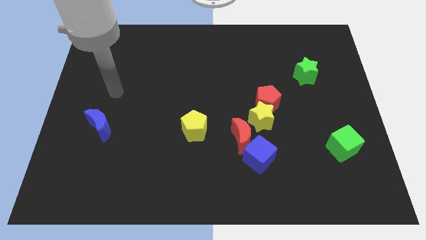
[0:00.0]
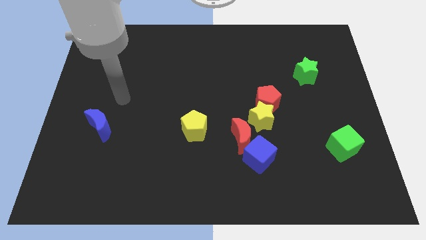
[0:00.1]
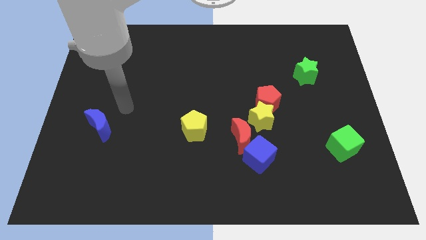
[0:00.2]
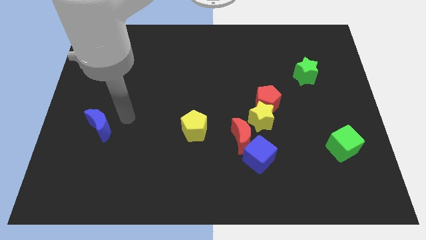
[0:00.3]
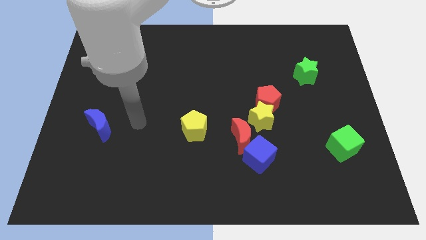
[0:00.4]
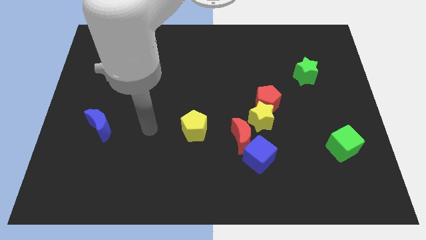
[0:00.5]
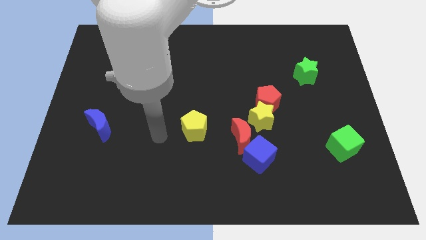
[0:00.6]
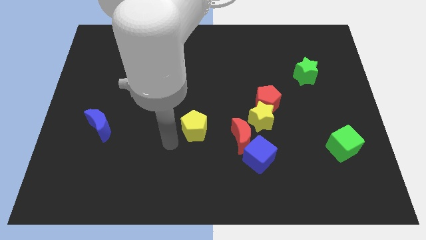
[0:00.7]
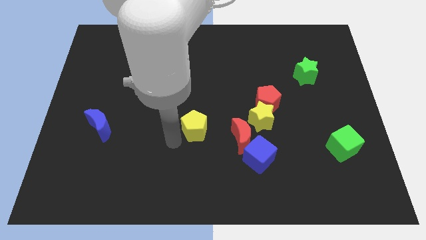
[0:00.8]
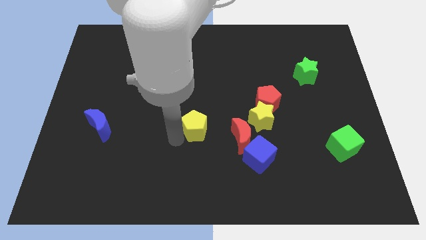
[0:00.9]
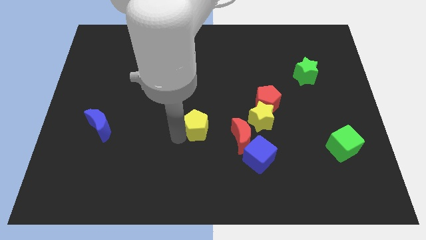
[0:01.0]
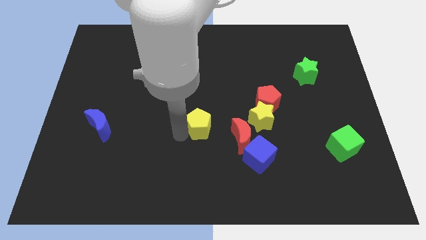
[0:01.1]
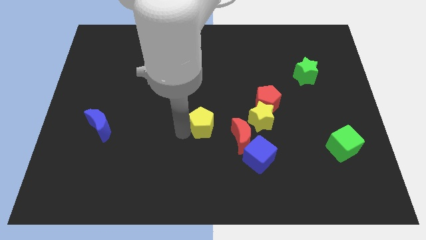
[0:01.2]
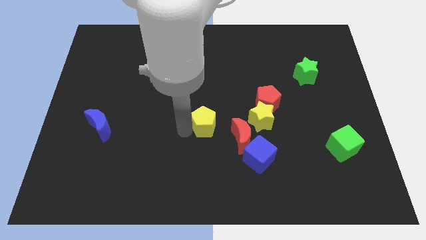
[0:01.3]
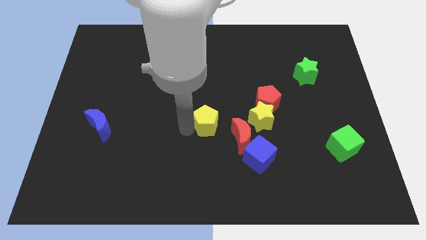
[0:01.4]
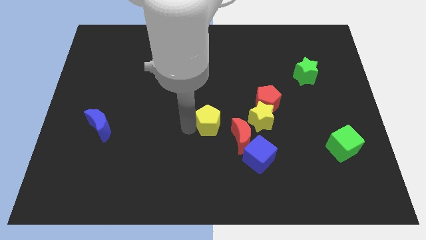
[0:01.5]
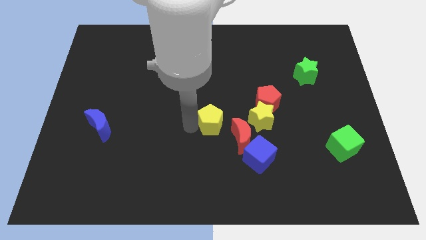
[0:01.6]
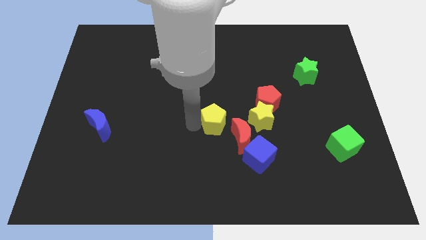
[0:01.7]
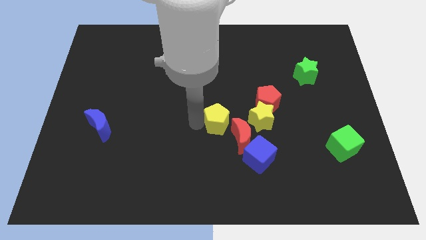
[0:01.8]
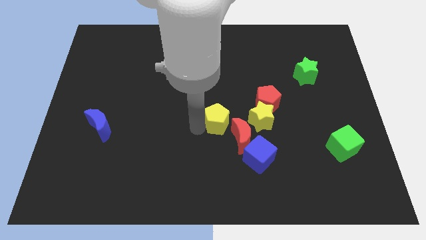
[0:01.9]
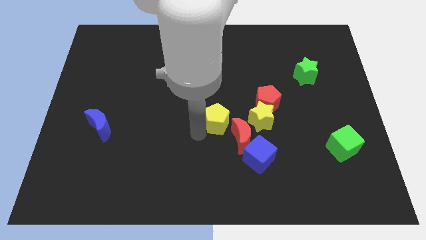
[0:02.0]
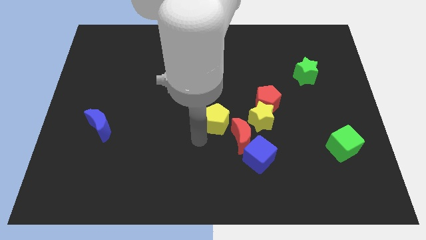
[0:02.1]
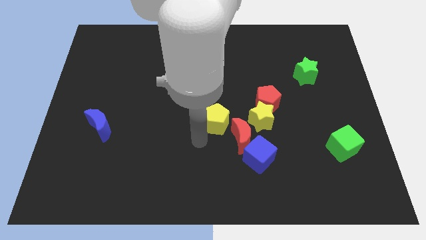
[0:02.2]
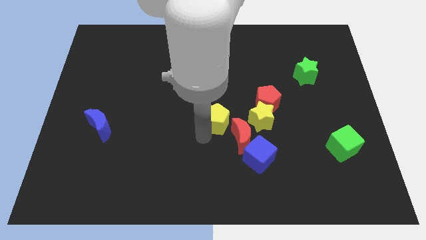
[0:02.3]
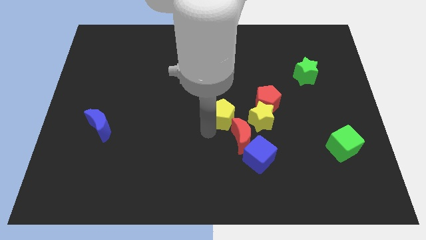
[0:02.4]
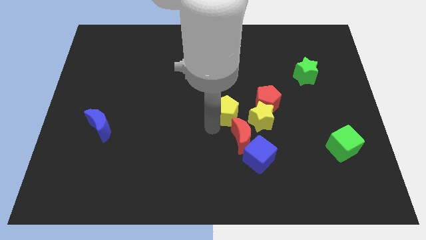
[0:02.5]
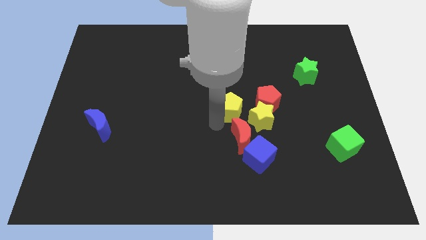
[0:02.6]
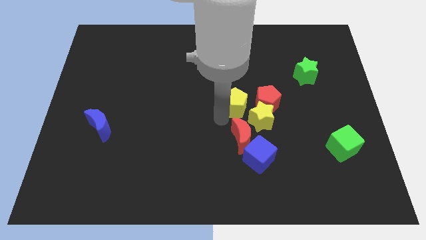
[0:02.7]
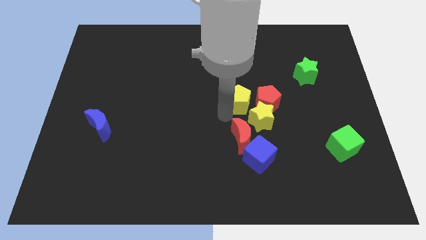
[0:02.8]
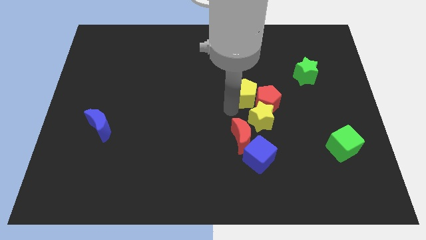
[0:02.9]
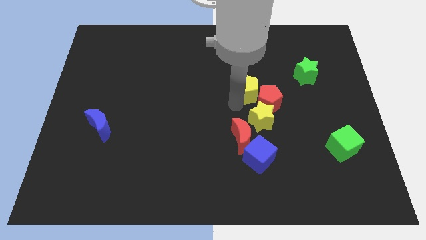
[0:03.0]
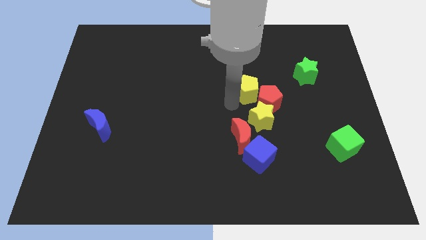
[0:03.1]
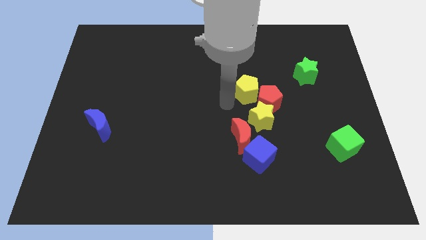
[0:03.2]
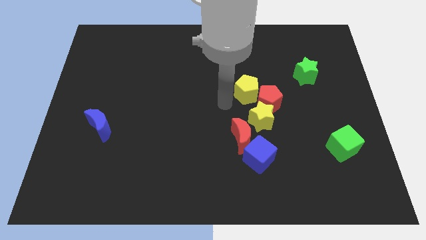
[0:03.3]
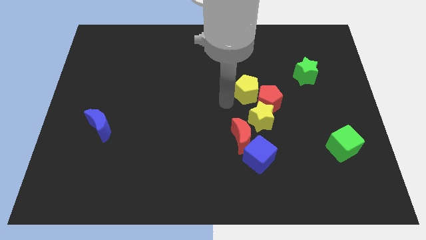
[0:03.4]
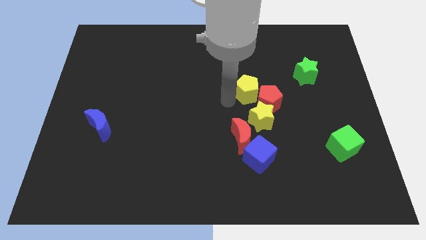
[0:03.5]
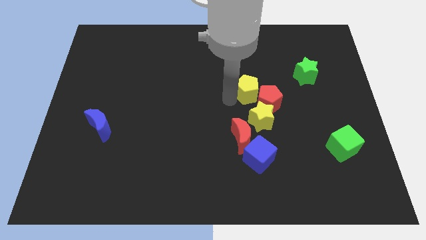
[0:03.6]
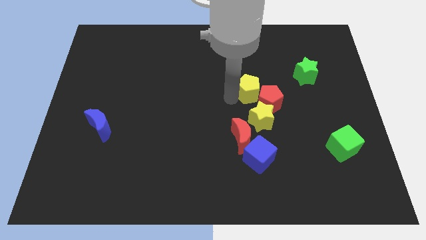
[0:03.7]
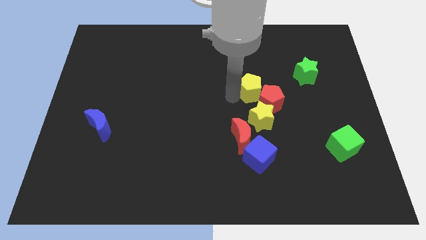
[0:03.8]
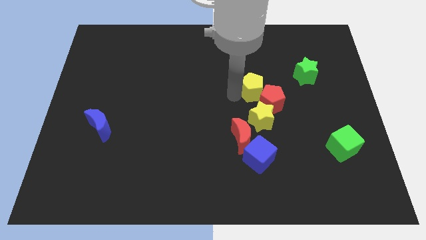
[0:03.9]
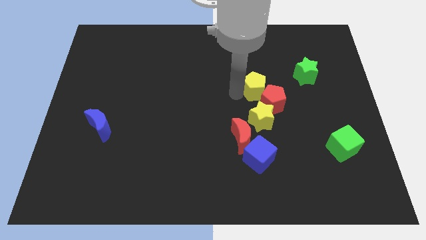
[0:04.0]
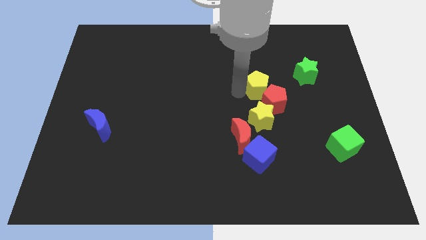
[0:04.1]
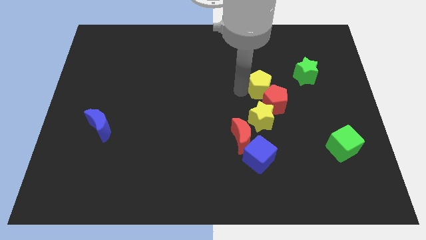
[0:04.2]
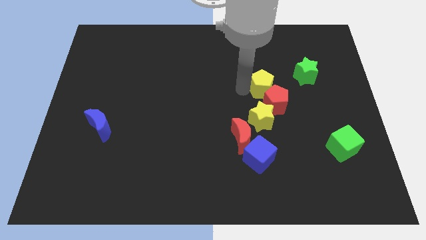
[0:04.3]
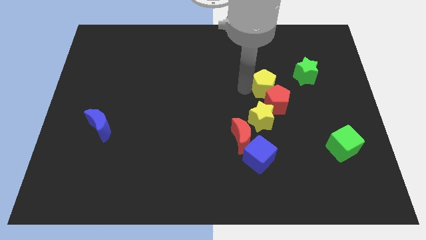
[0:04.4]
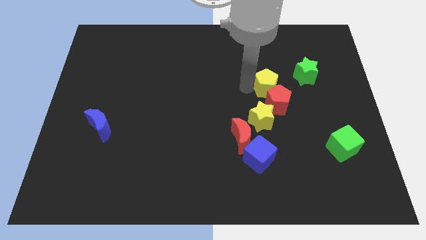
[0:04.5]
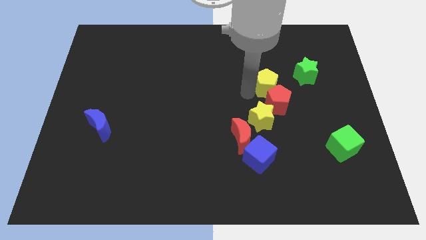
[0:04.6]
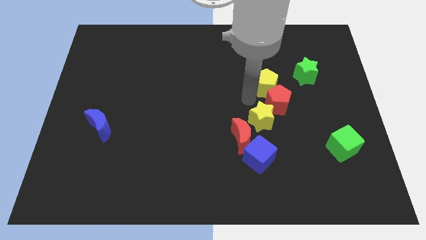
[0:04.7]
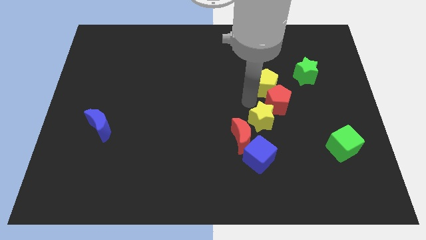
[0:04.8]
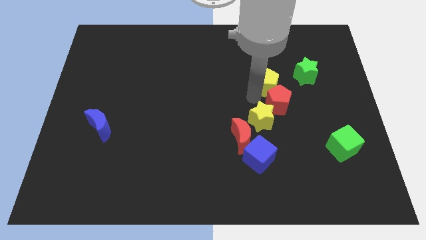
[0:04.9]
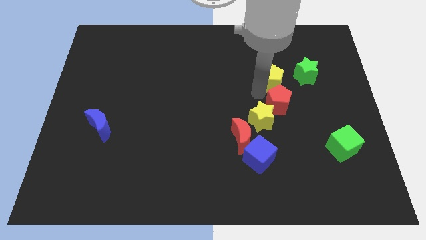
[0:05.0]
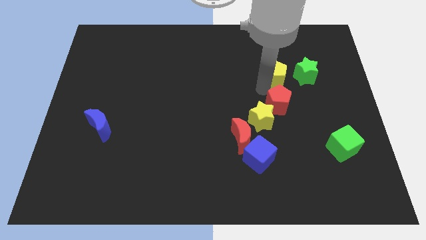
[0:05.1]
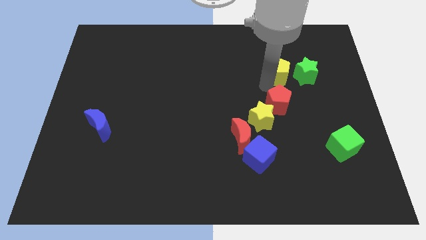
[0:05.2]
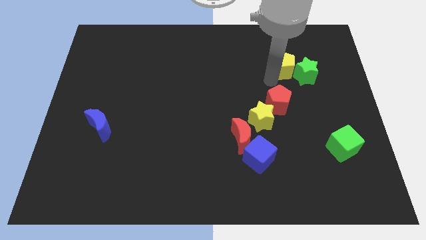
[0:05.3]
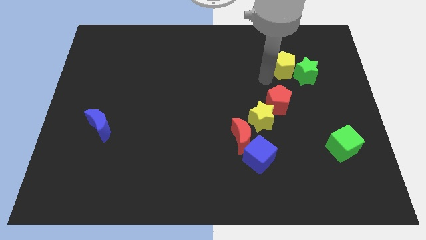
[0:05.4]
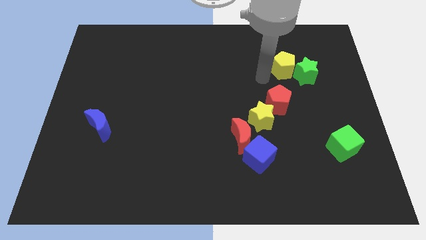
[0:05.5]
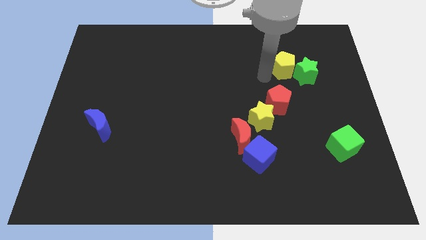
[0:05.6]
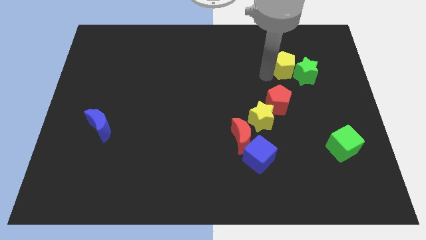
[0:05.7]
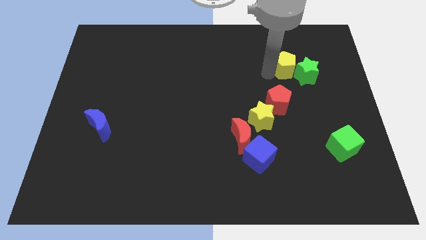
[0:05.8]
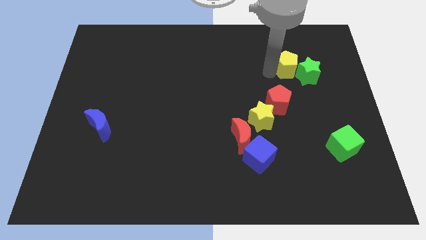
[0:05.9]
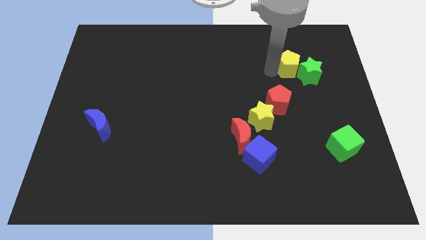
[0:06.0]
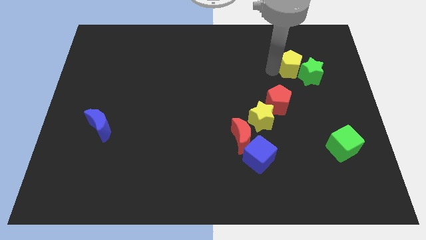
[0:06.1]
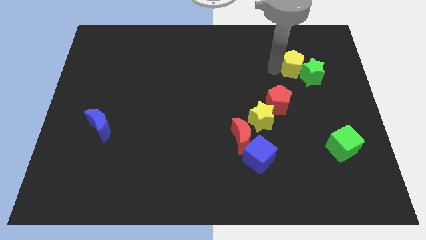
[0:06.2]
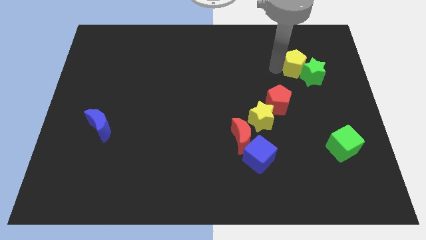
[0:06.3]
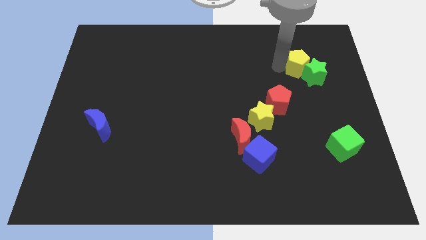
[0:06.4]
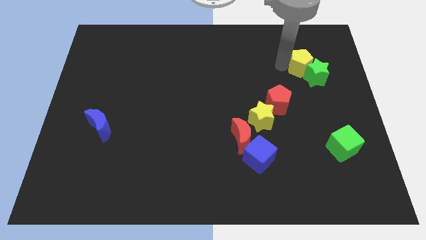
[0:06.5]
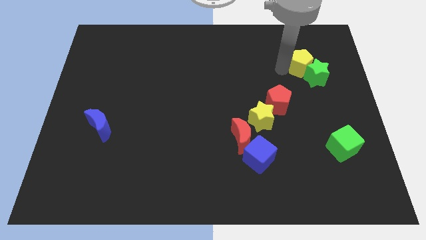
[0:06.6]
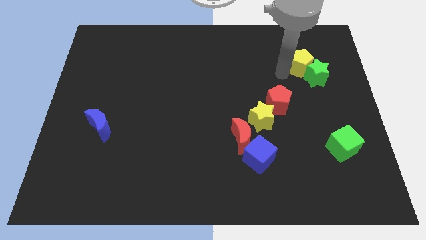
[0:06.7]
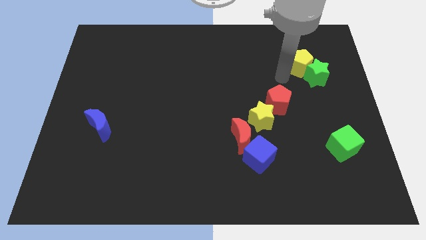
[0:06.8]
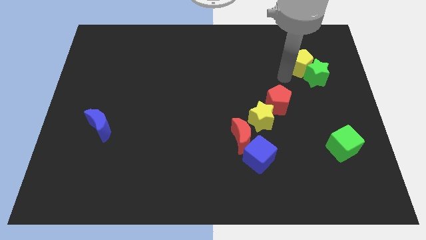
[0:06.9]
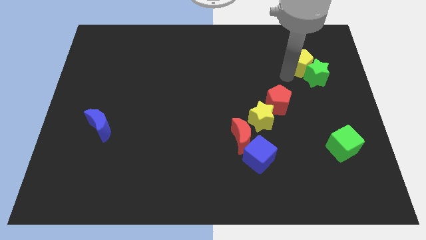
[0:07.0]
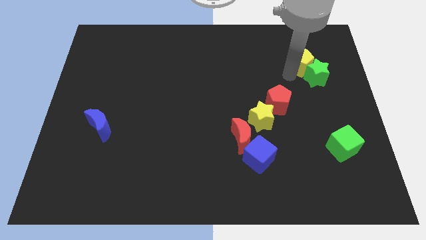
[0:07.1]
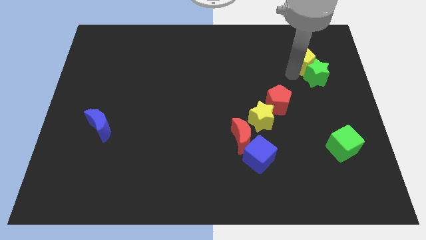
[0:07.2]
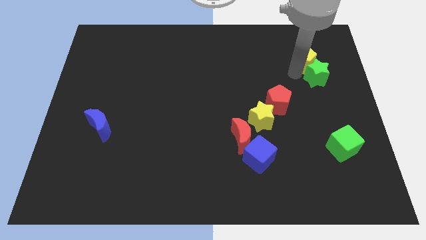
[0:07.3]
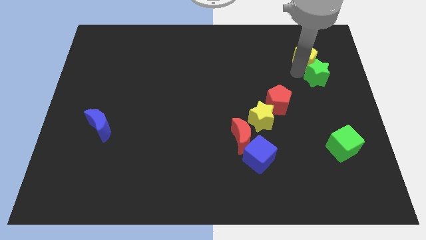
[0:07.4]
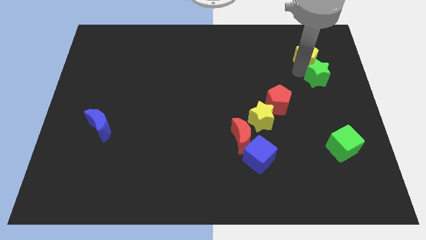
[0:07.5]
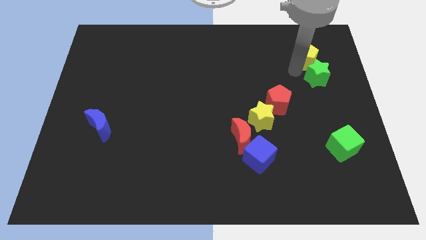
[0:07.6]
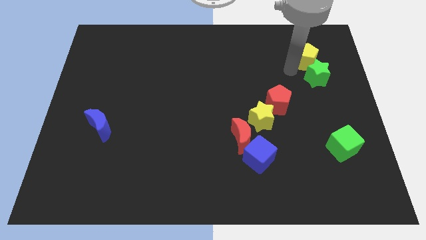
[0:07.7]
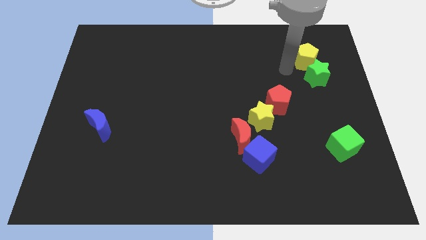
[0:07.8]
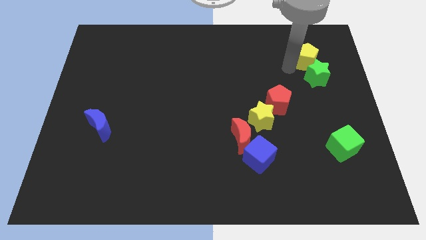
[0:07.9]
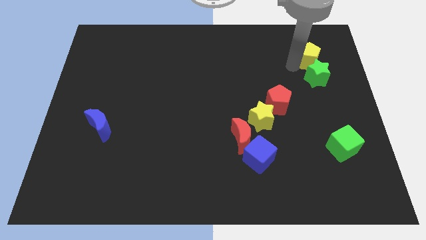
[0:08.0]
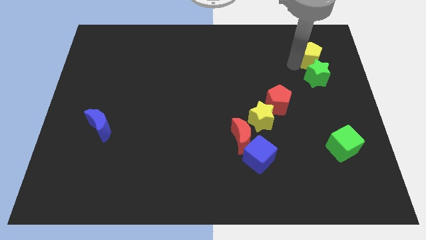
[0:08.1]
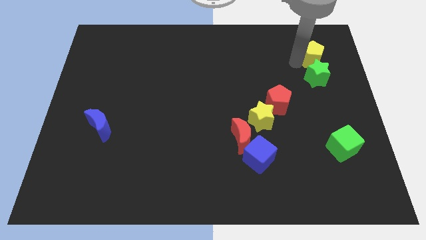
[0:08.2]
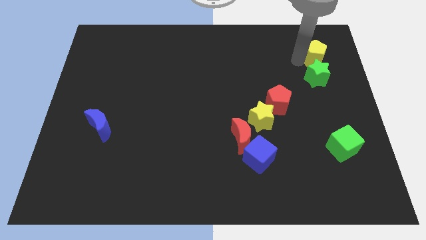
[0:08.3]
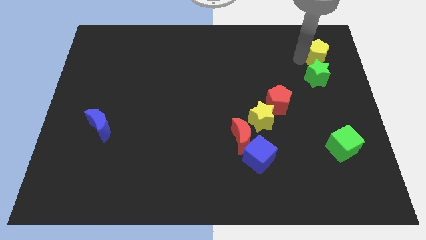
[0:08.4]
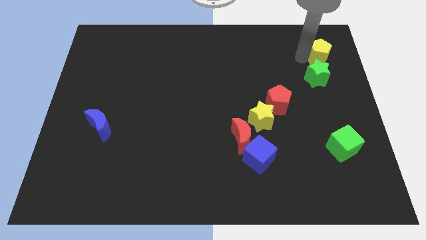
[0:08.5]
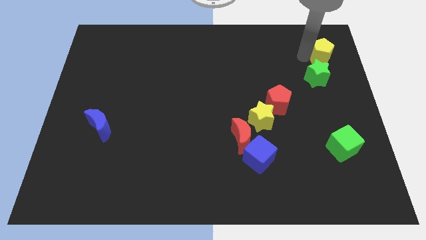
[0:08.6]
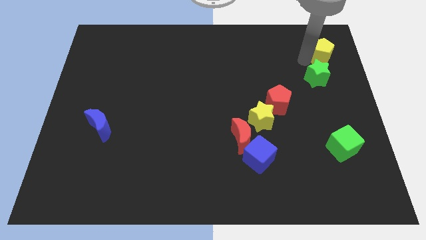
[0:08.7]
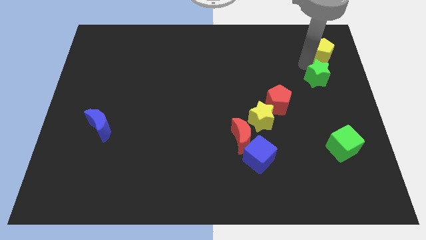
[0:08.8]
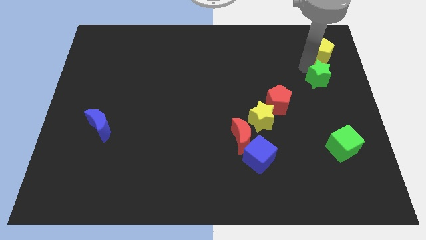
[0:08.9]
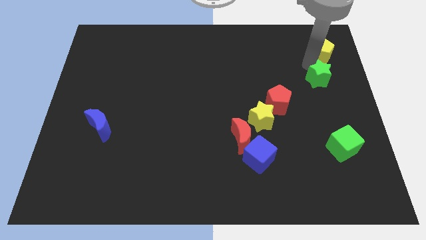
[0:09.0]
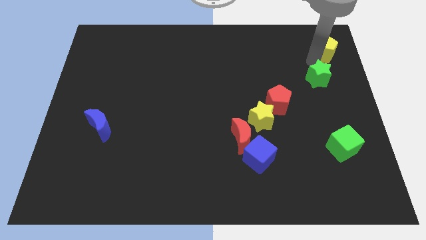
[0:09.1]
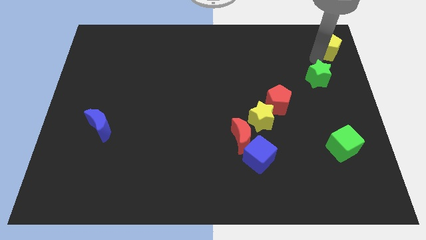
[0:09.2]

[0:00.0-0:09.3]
move the yellow pentagon to the top right of the board
